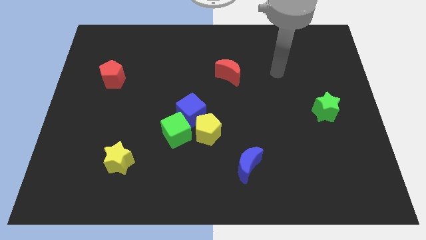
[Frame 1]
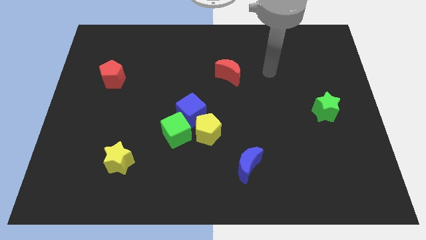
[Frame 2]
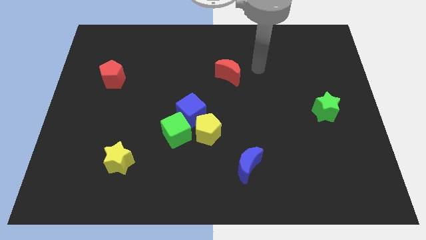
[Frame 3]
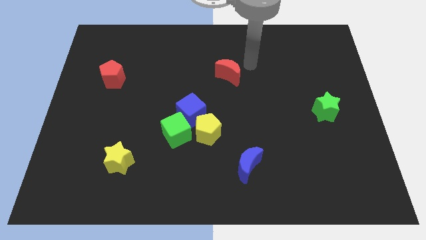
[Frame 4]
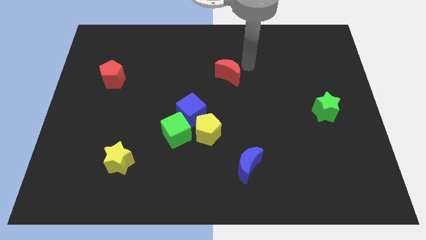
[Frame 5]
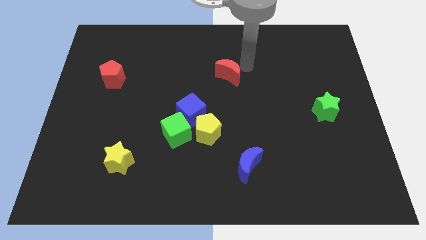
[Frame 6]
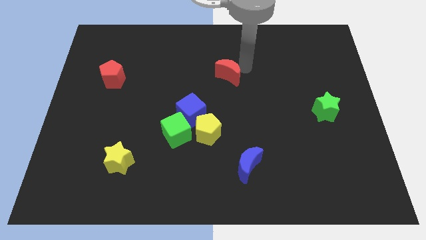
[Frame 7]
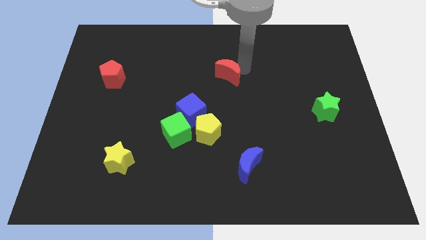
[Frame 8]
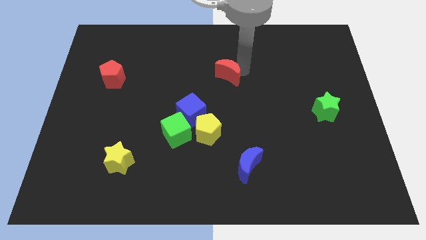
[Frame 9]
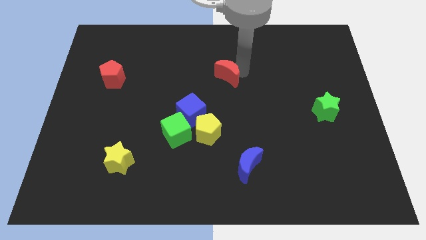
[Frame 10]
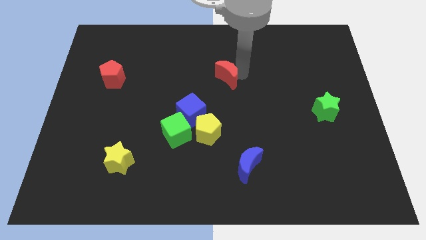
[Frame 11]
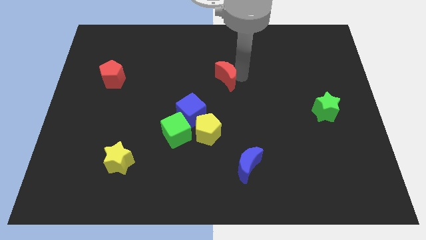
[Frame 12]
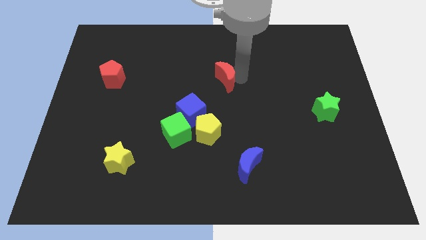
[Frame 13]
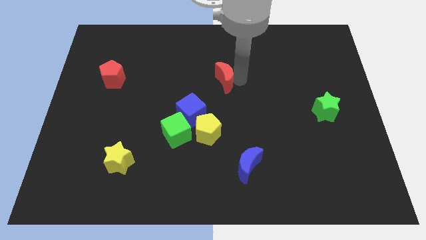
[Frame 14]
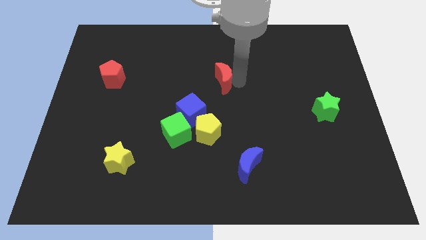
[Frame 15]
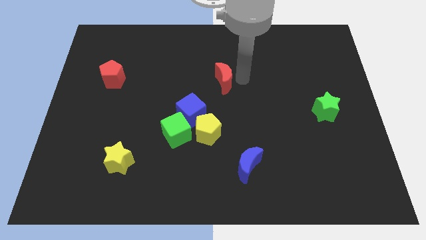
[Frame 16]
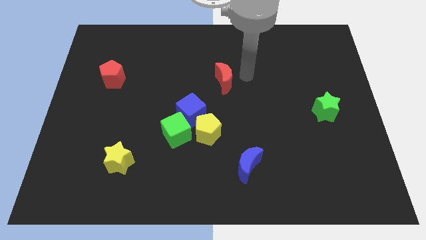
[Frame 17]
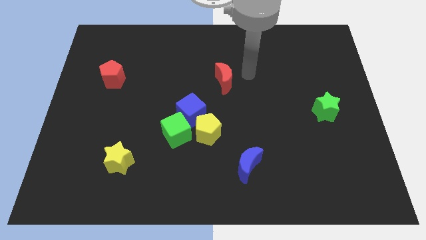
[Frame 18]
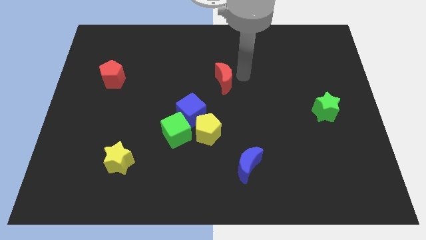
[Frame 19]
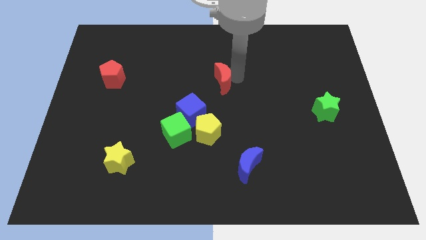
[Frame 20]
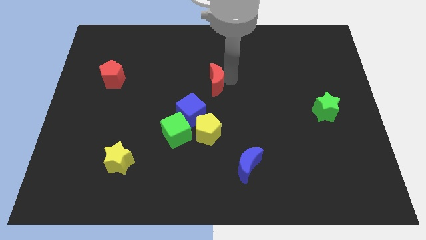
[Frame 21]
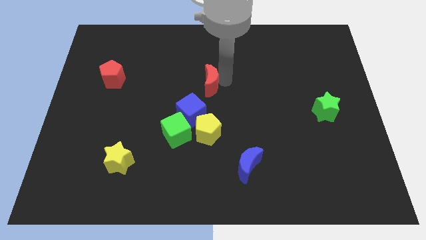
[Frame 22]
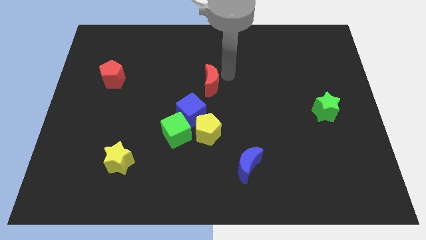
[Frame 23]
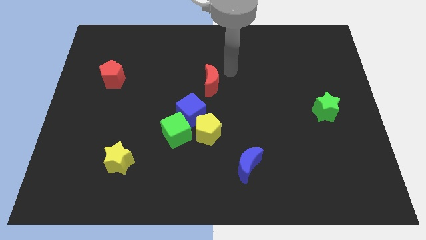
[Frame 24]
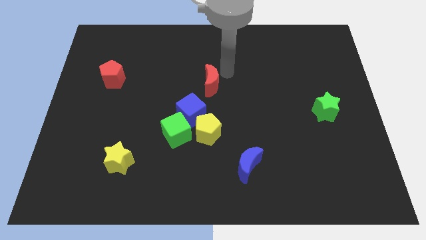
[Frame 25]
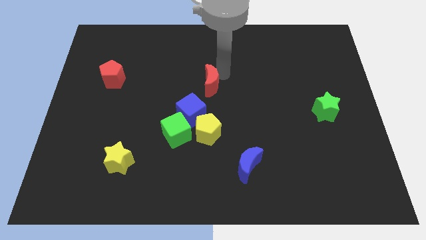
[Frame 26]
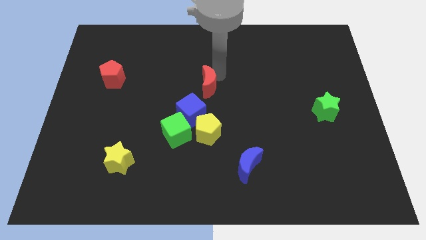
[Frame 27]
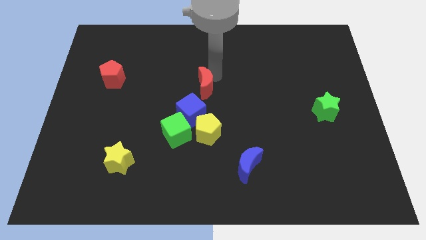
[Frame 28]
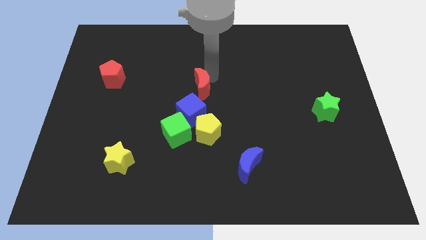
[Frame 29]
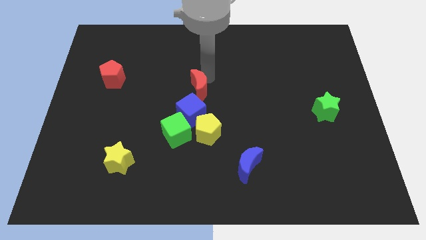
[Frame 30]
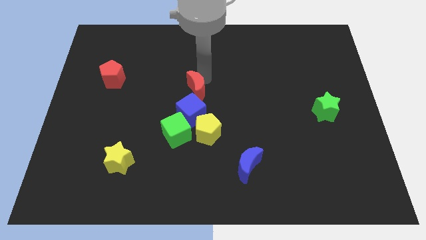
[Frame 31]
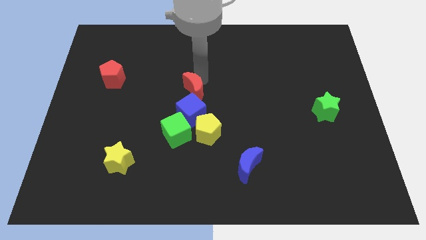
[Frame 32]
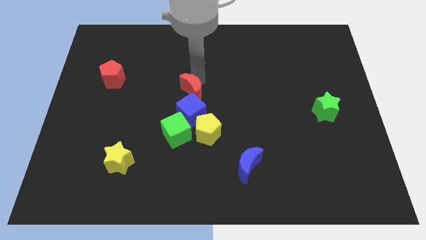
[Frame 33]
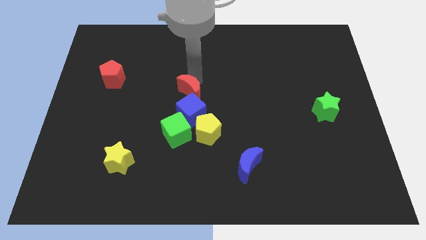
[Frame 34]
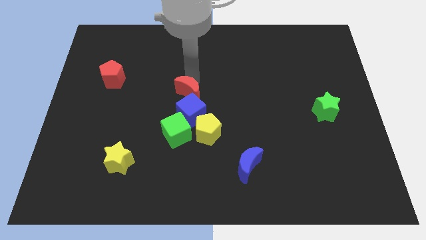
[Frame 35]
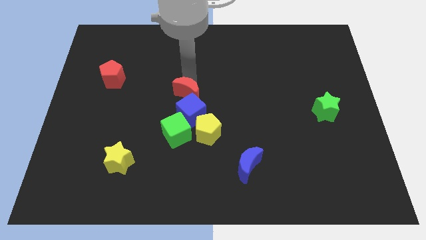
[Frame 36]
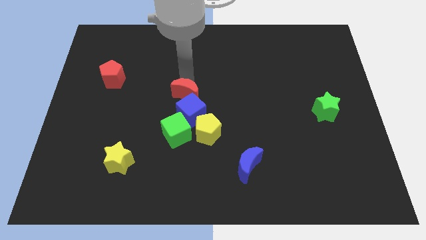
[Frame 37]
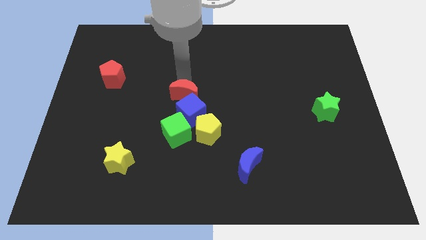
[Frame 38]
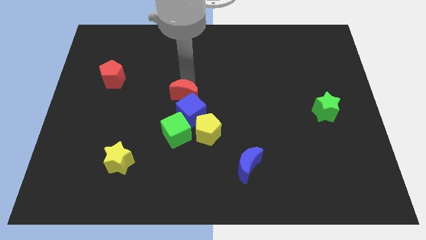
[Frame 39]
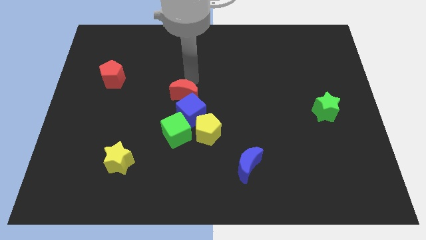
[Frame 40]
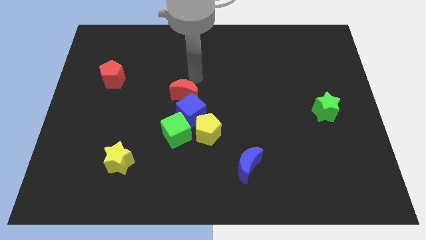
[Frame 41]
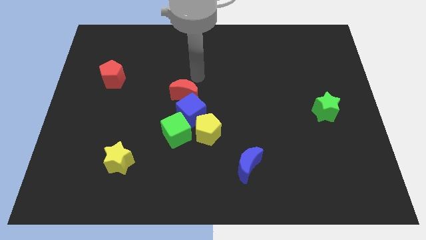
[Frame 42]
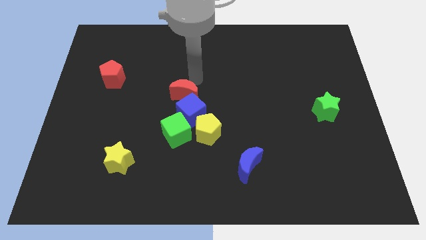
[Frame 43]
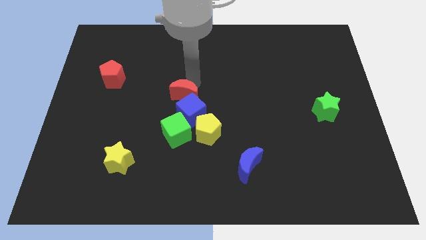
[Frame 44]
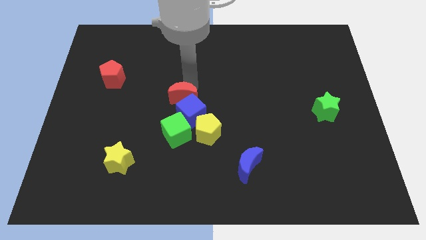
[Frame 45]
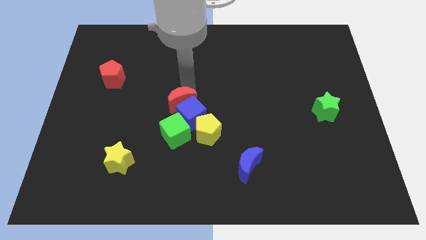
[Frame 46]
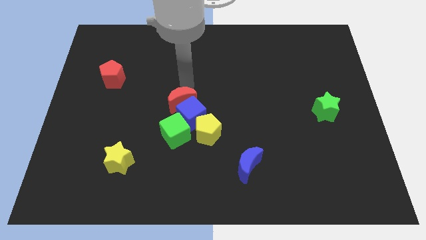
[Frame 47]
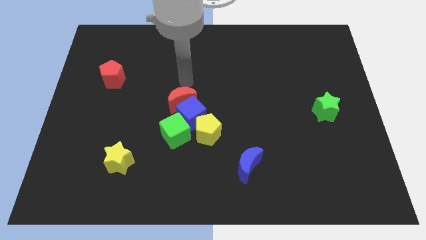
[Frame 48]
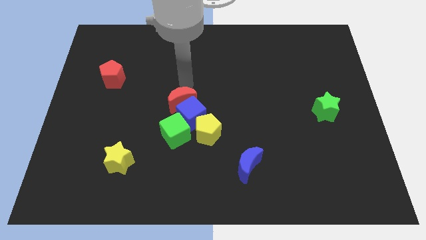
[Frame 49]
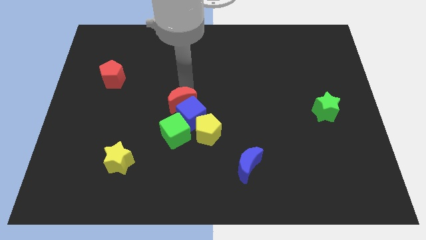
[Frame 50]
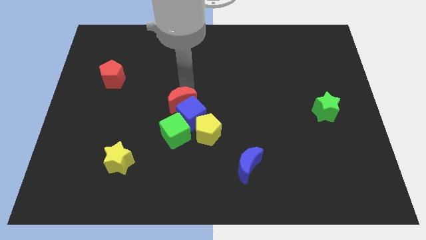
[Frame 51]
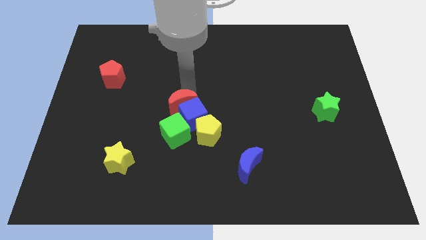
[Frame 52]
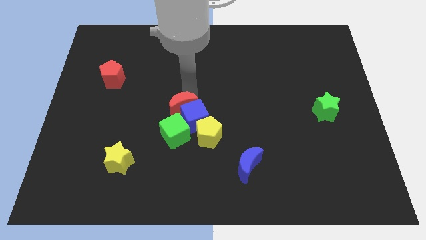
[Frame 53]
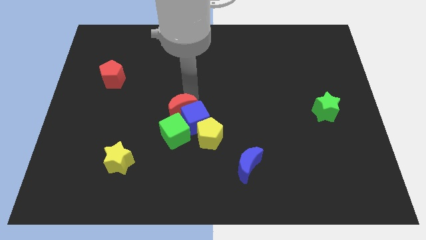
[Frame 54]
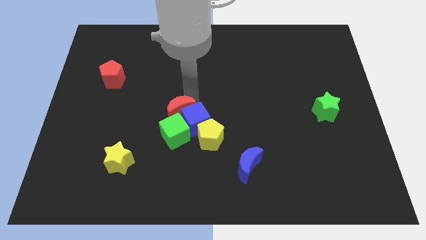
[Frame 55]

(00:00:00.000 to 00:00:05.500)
slide the red moon towards the green cube

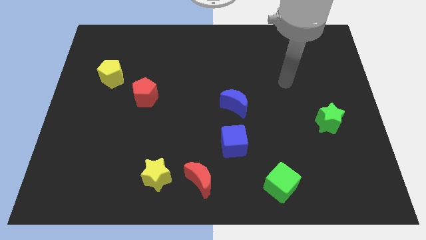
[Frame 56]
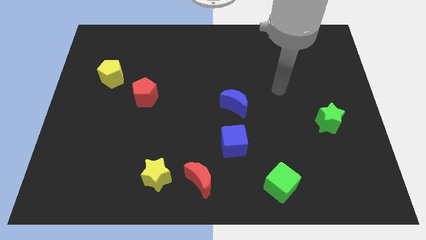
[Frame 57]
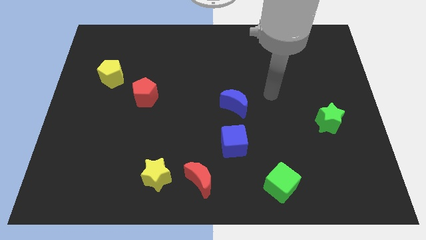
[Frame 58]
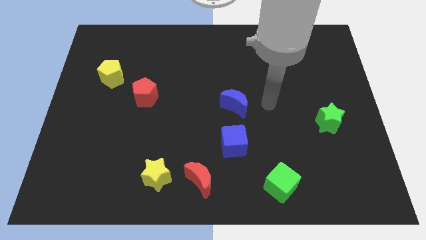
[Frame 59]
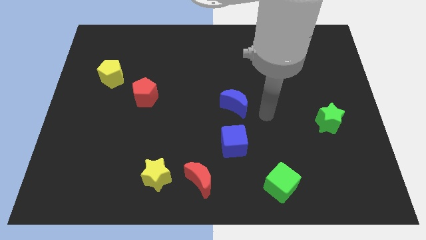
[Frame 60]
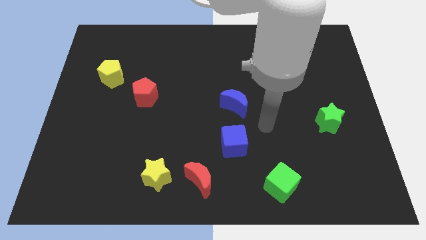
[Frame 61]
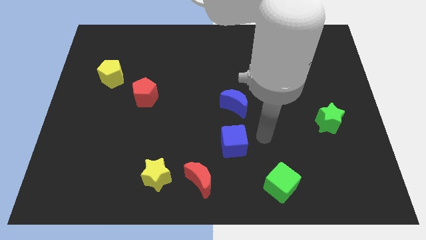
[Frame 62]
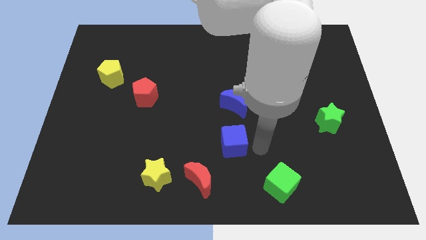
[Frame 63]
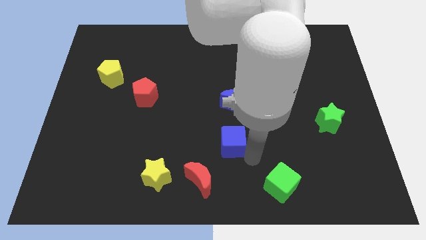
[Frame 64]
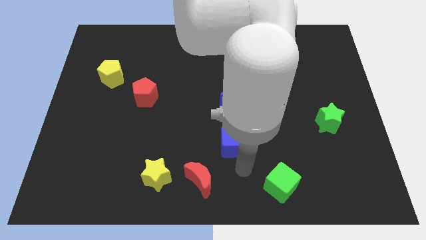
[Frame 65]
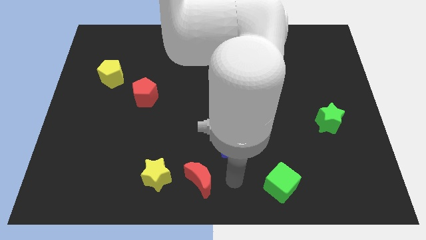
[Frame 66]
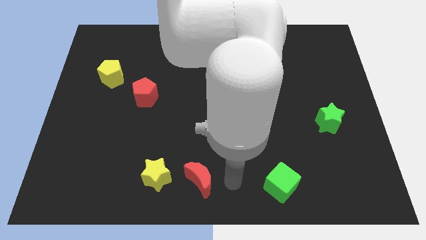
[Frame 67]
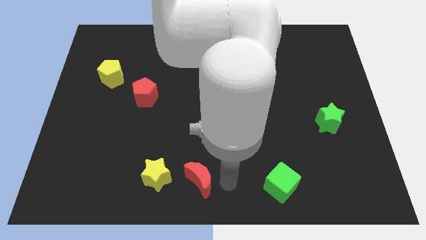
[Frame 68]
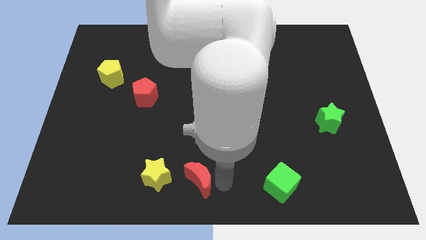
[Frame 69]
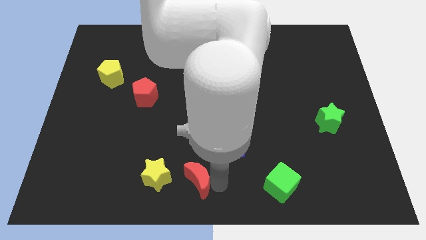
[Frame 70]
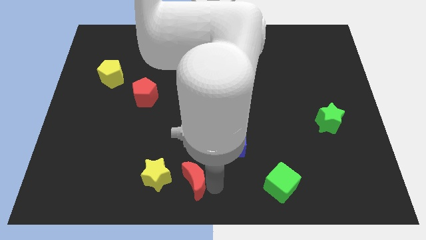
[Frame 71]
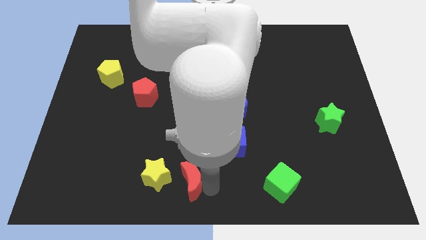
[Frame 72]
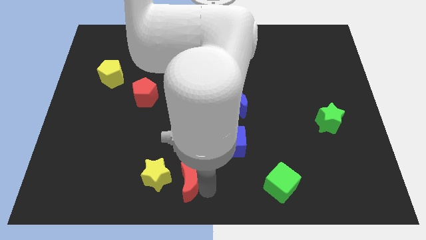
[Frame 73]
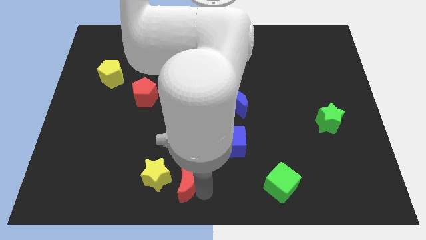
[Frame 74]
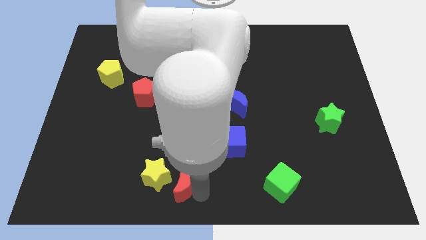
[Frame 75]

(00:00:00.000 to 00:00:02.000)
push the red moon towards the yellow star

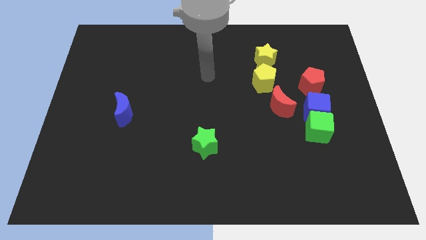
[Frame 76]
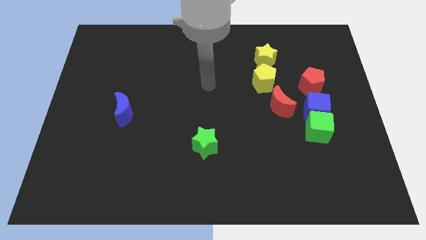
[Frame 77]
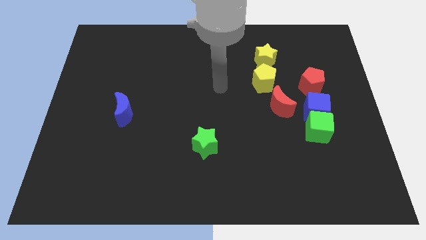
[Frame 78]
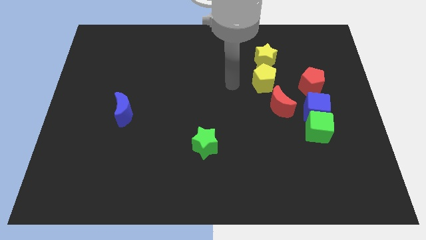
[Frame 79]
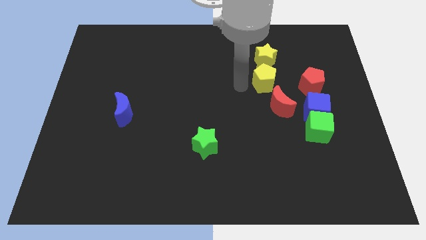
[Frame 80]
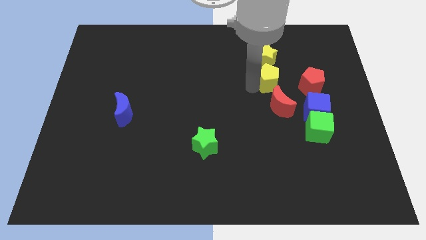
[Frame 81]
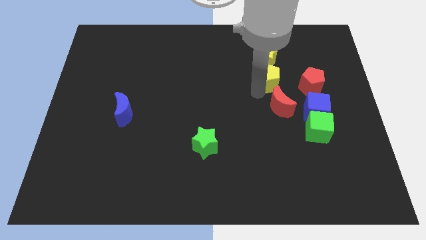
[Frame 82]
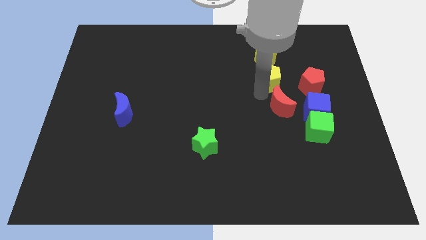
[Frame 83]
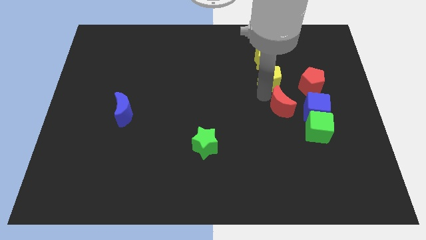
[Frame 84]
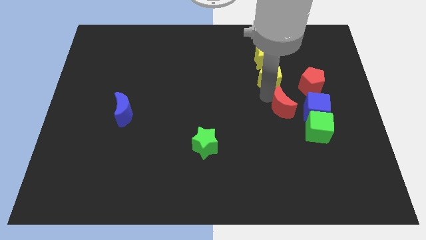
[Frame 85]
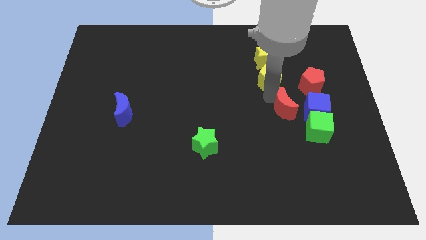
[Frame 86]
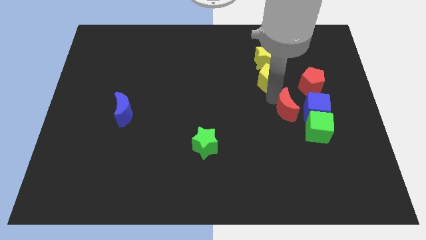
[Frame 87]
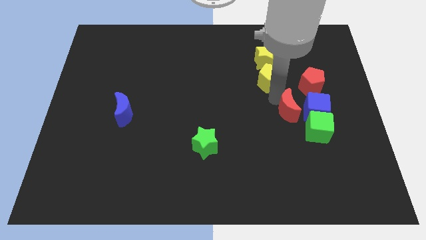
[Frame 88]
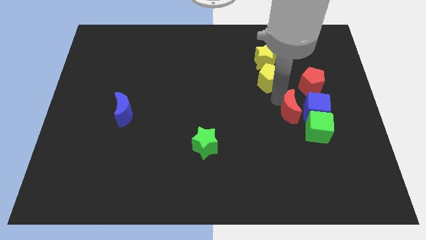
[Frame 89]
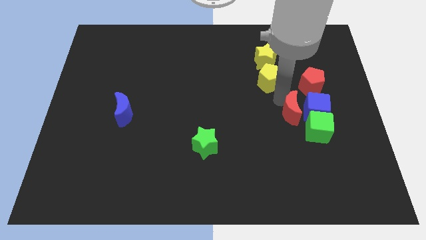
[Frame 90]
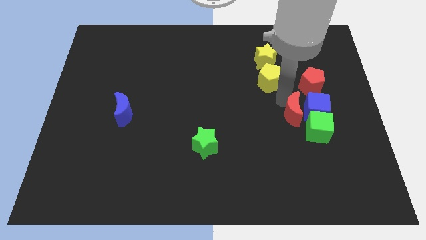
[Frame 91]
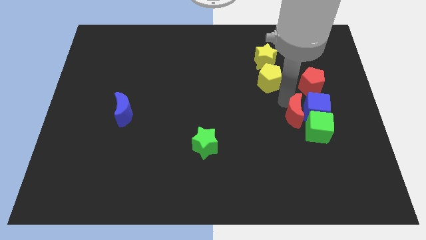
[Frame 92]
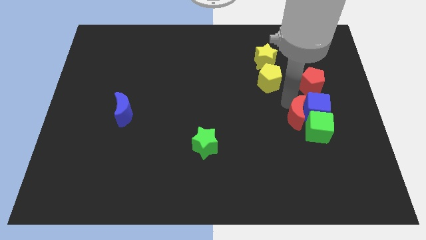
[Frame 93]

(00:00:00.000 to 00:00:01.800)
move the red moon next to the green cube
